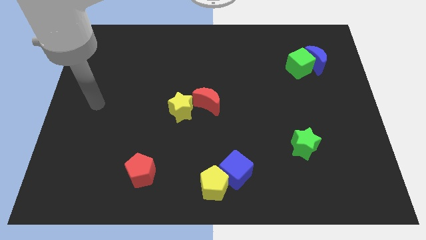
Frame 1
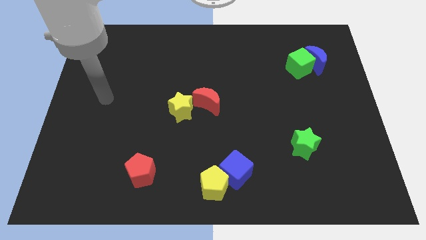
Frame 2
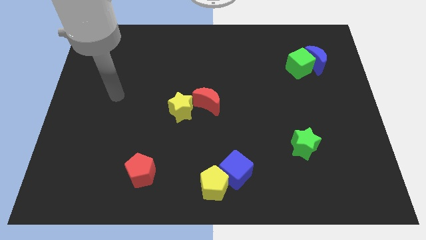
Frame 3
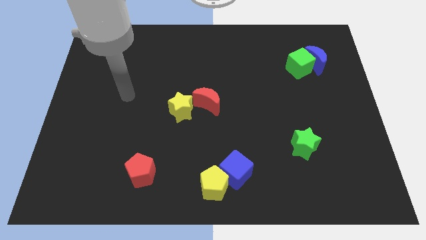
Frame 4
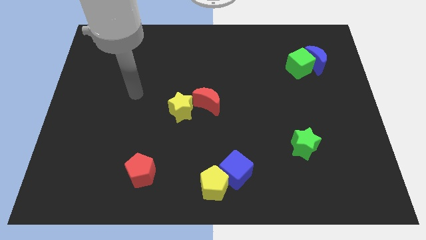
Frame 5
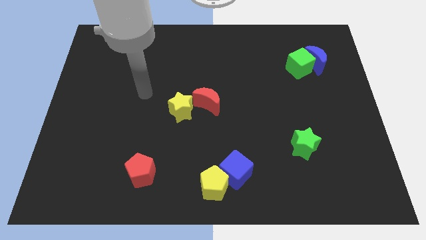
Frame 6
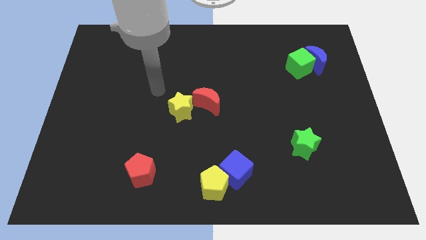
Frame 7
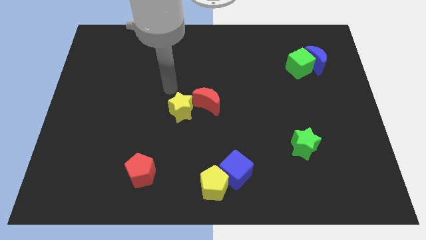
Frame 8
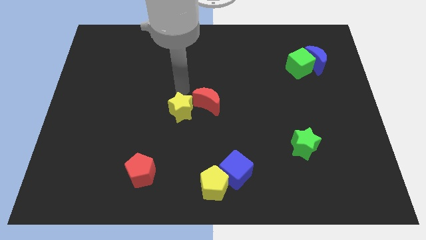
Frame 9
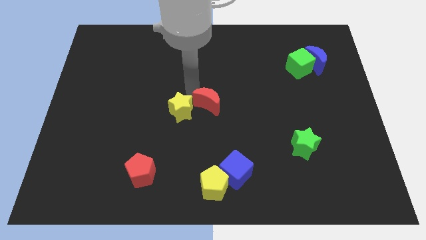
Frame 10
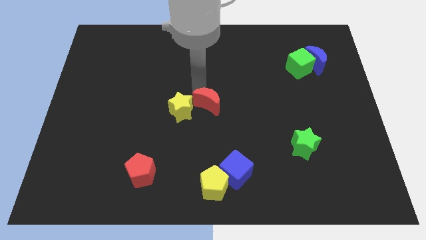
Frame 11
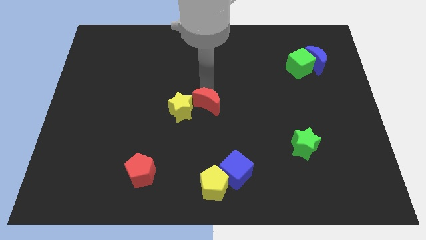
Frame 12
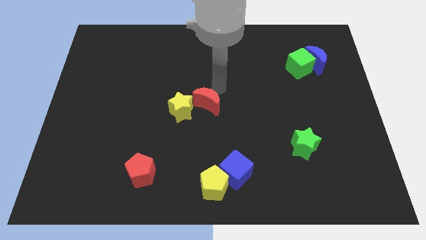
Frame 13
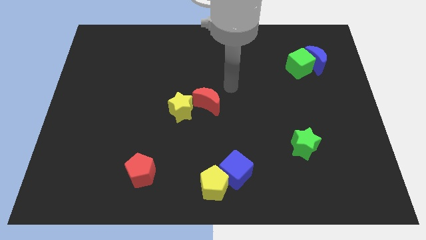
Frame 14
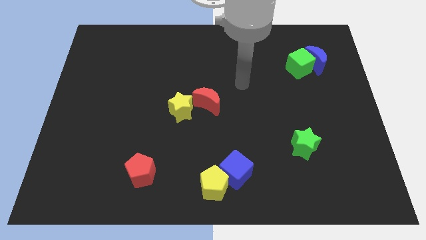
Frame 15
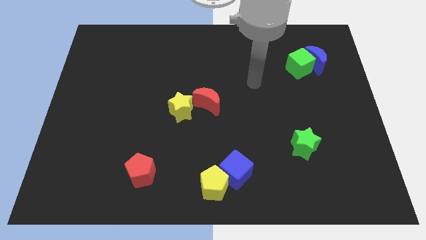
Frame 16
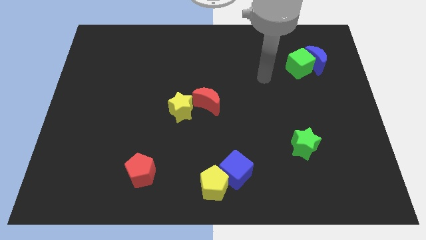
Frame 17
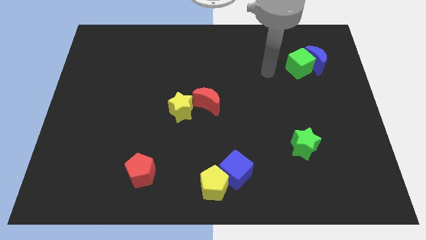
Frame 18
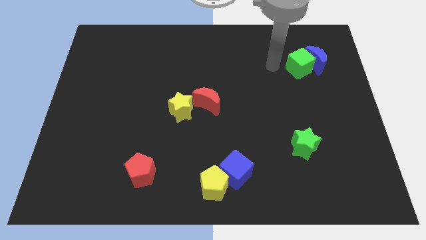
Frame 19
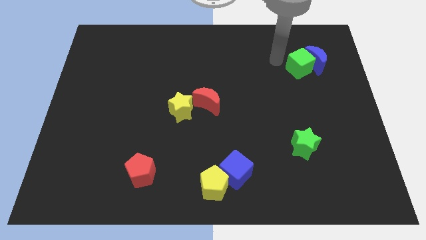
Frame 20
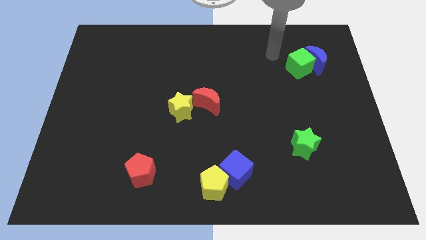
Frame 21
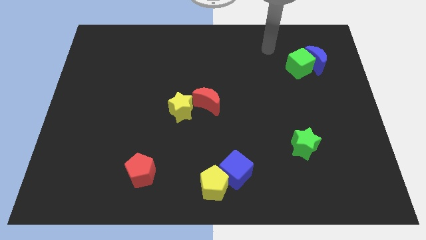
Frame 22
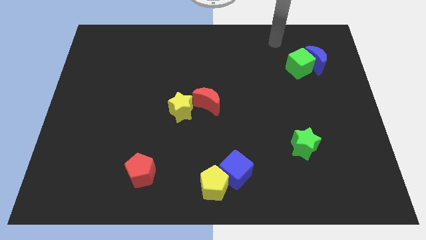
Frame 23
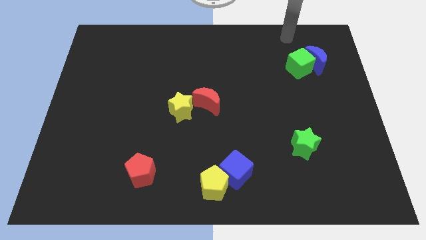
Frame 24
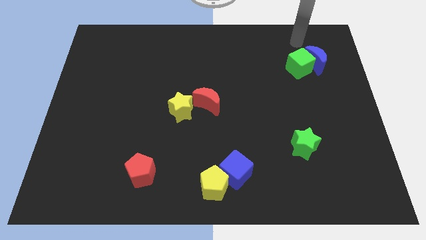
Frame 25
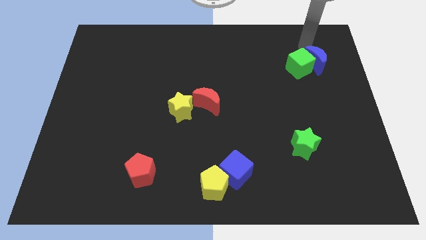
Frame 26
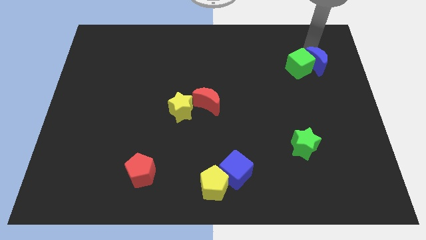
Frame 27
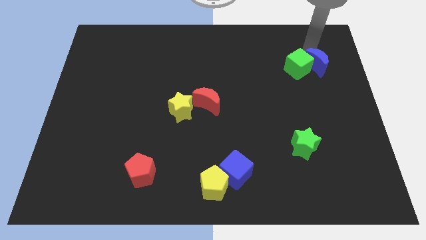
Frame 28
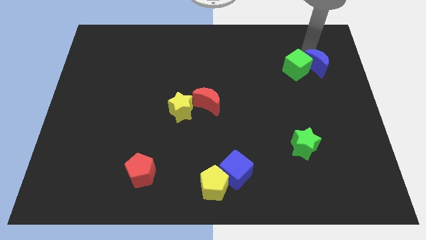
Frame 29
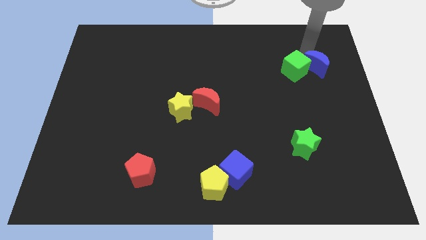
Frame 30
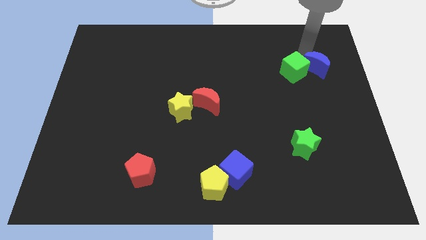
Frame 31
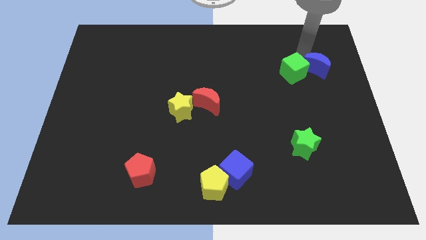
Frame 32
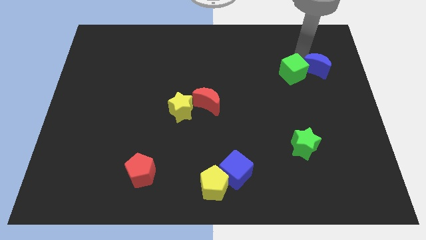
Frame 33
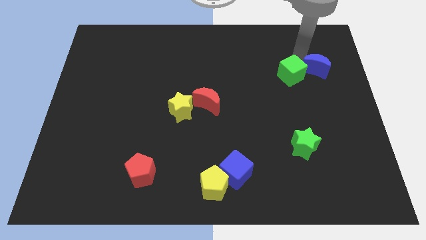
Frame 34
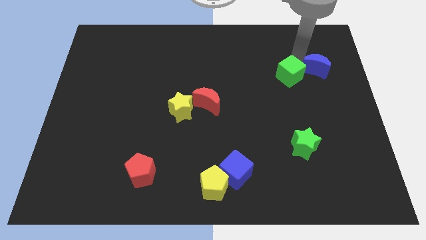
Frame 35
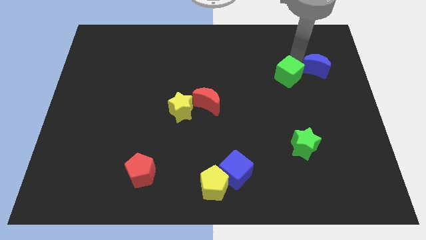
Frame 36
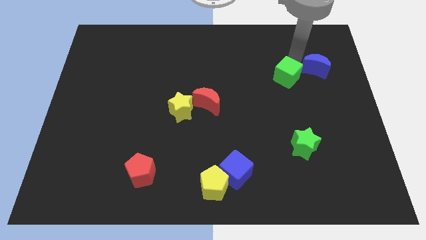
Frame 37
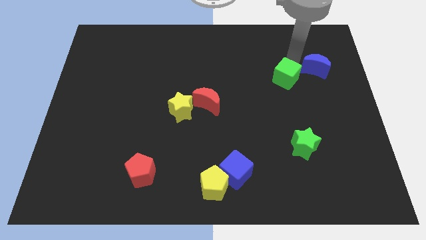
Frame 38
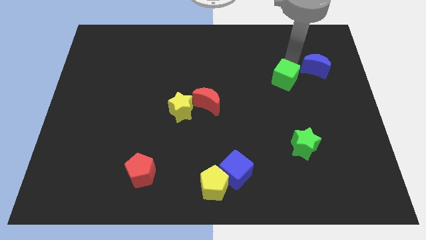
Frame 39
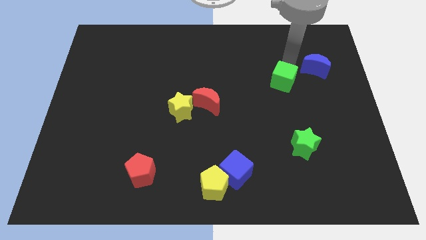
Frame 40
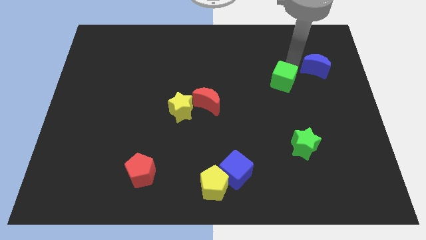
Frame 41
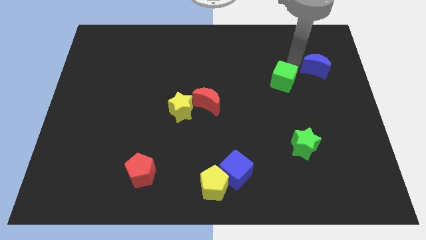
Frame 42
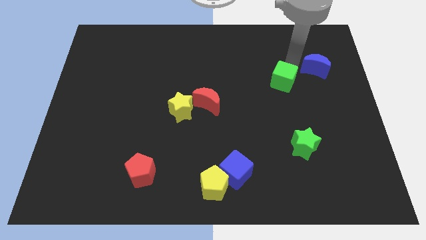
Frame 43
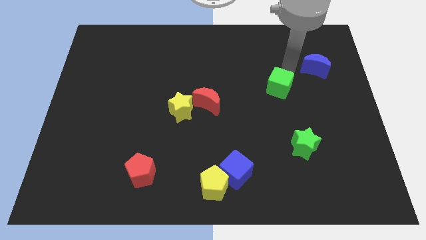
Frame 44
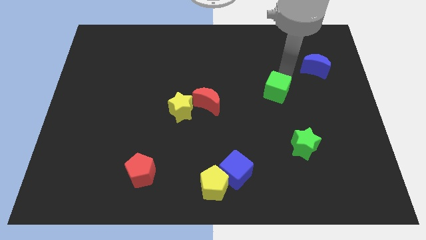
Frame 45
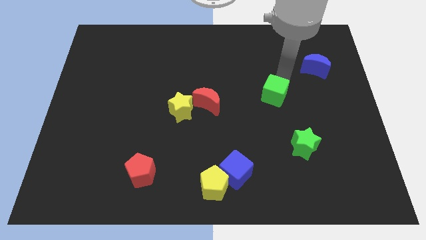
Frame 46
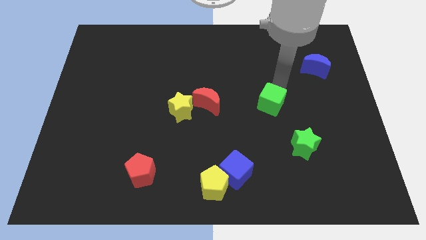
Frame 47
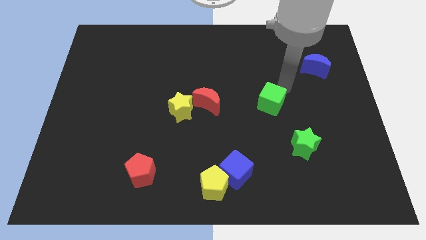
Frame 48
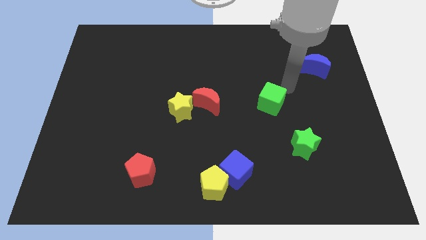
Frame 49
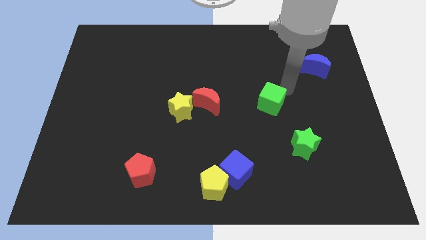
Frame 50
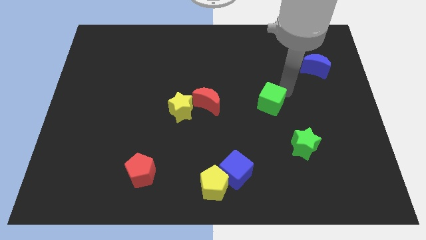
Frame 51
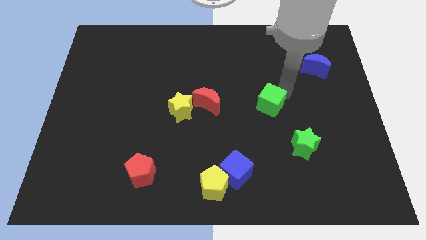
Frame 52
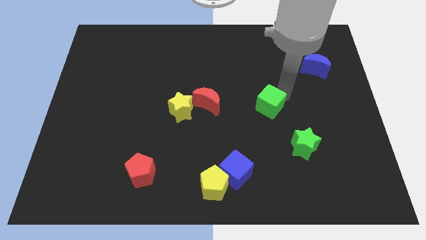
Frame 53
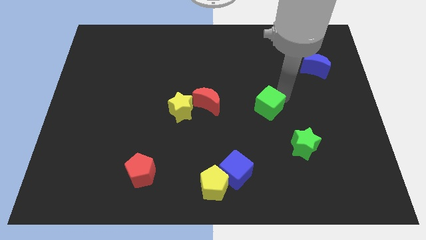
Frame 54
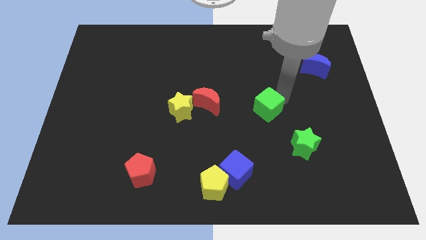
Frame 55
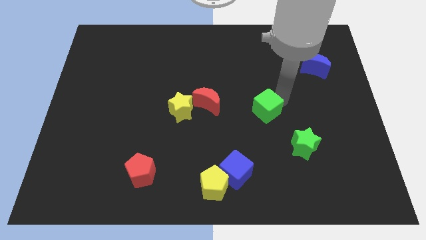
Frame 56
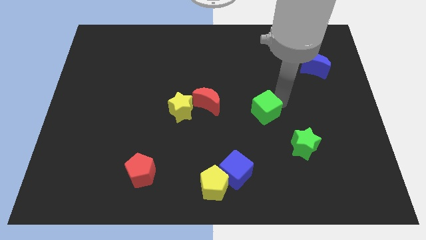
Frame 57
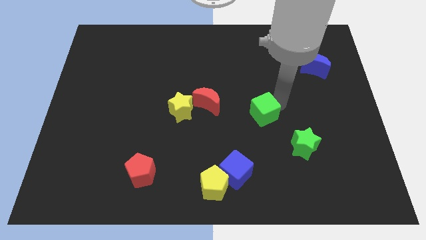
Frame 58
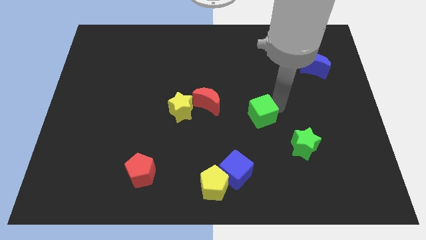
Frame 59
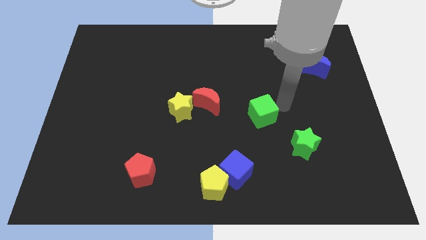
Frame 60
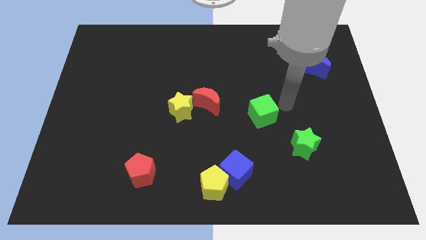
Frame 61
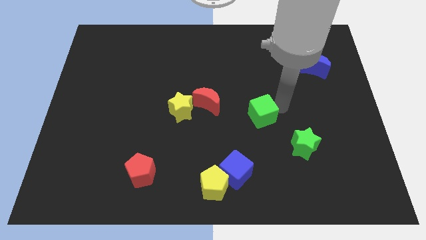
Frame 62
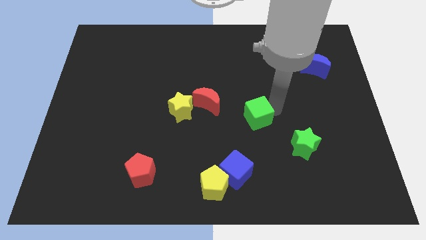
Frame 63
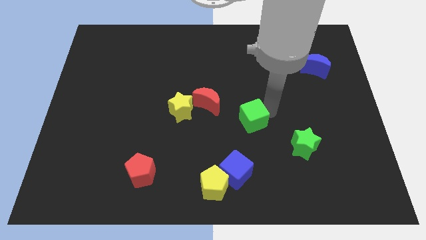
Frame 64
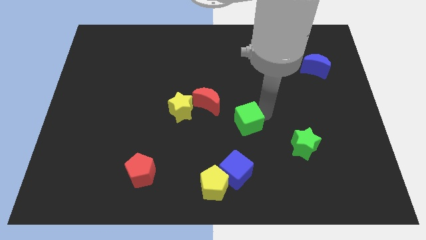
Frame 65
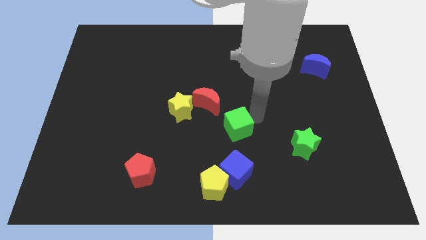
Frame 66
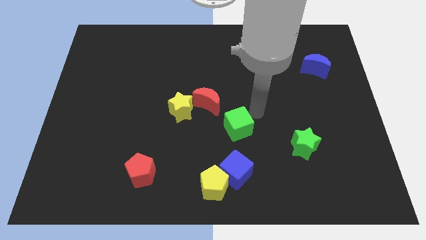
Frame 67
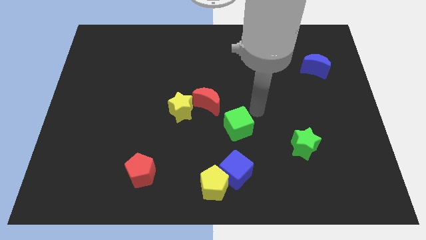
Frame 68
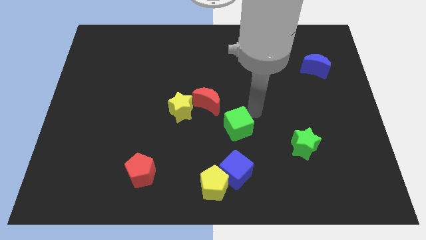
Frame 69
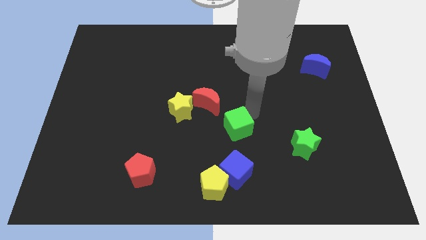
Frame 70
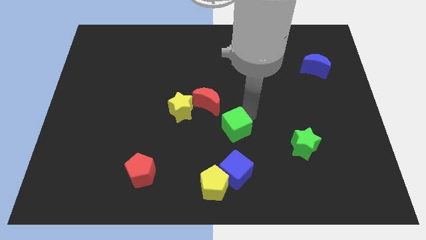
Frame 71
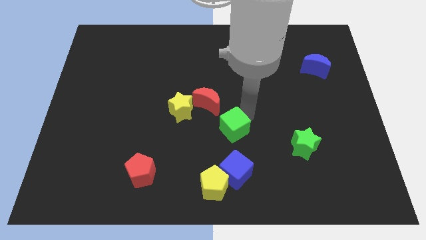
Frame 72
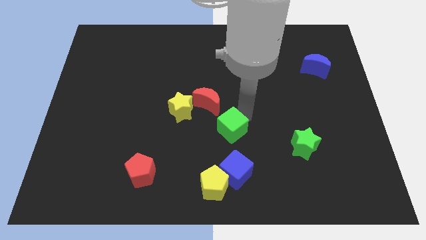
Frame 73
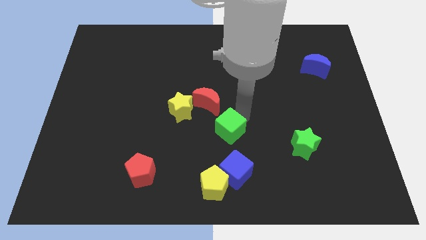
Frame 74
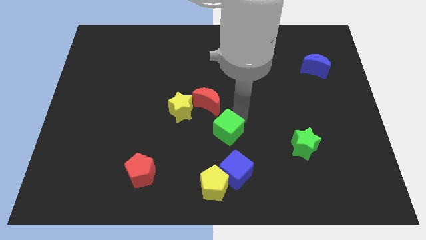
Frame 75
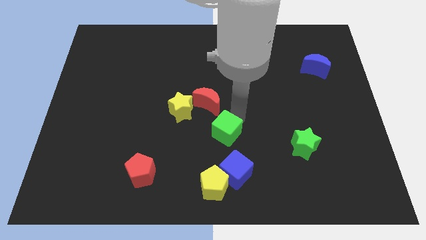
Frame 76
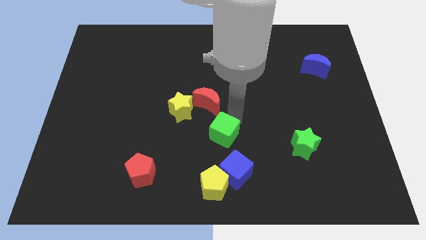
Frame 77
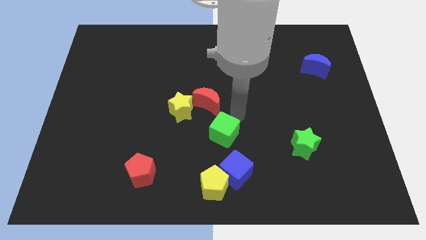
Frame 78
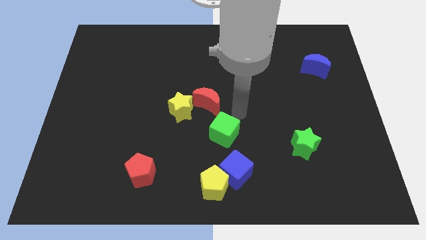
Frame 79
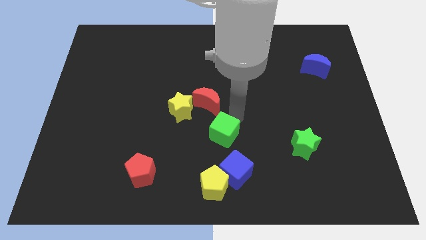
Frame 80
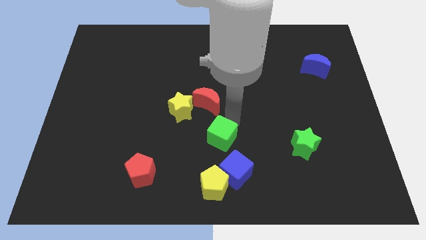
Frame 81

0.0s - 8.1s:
move the green cube to the top left side of the blue cube

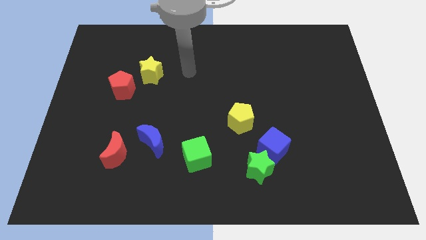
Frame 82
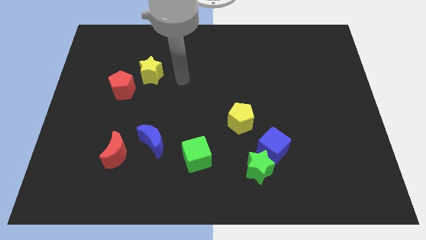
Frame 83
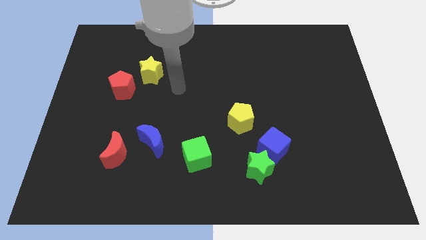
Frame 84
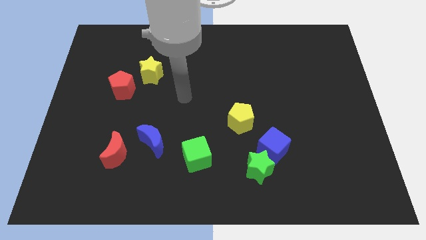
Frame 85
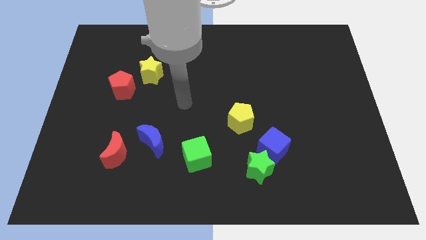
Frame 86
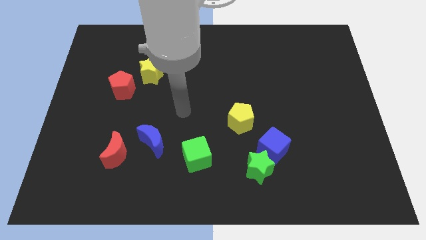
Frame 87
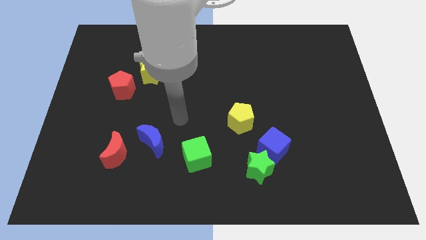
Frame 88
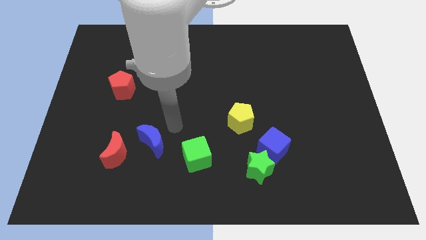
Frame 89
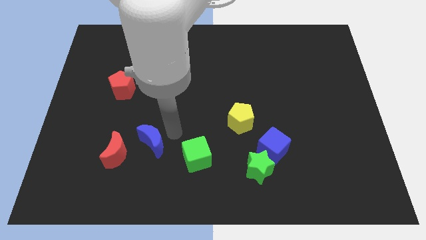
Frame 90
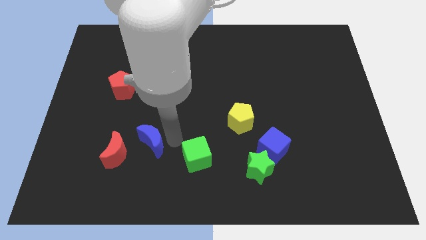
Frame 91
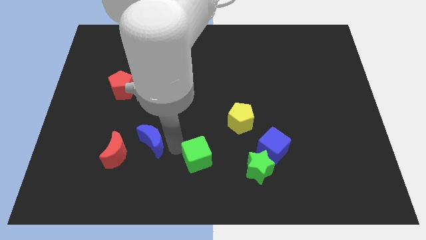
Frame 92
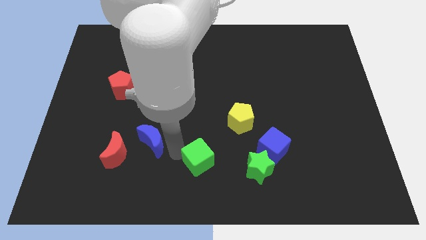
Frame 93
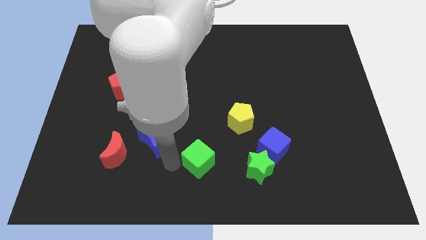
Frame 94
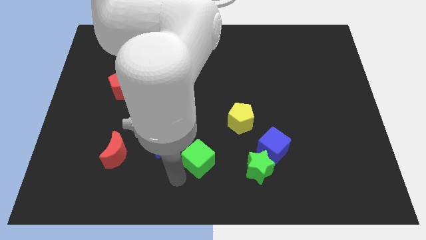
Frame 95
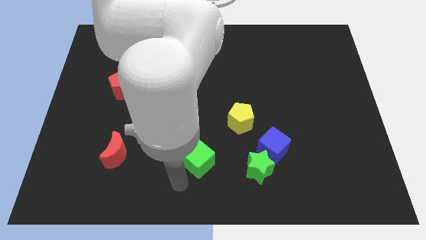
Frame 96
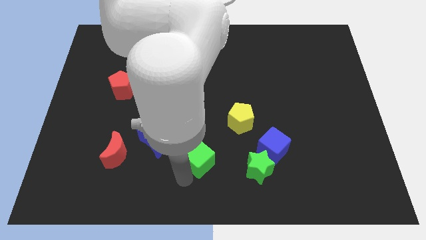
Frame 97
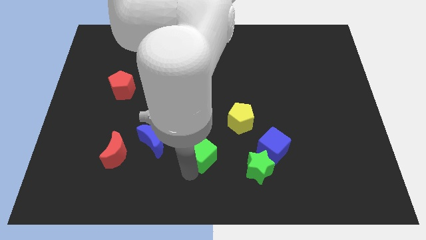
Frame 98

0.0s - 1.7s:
put the green cube to the bottom left side of the yellow pentagon
